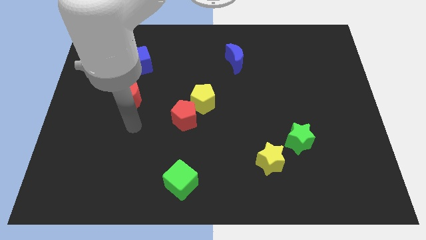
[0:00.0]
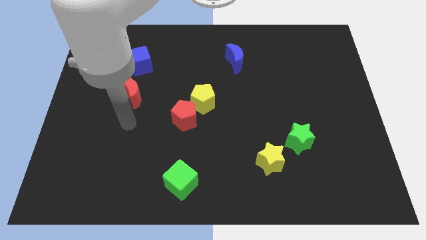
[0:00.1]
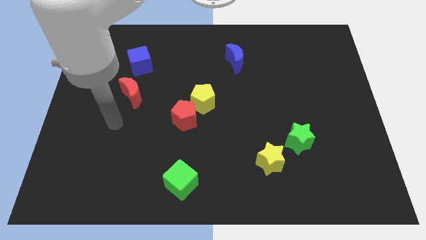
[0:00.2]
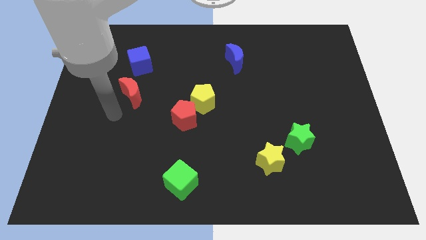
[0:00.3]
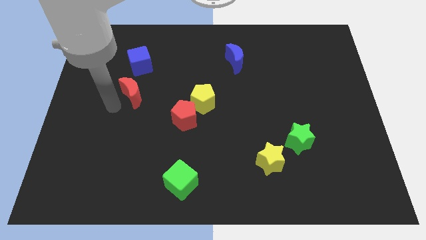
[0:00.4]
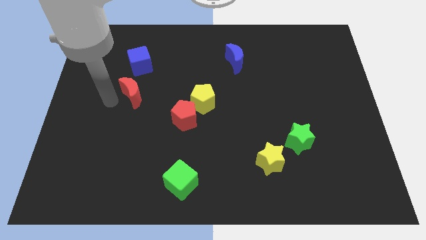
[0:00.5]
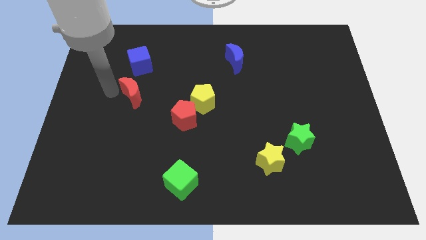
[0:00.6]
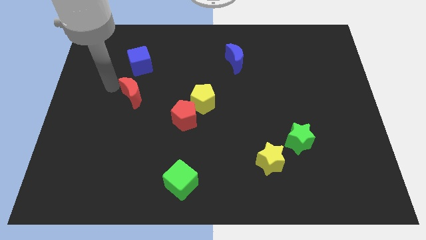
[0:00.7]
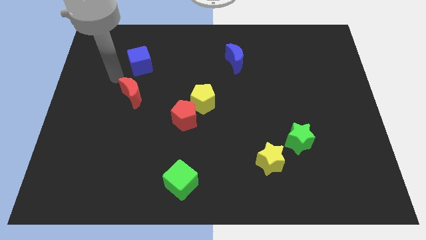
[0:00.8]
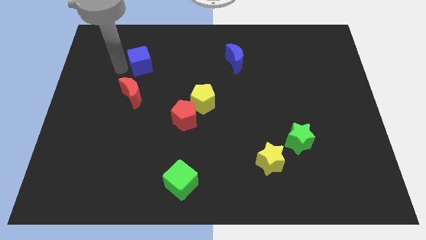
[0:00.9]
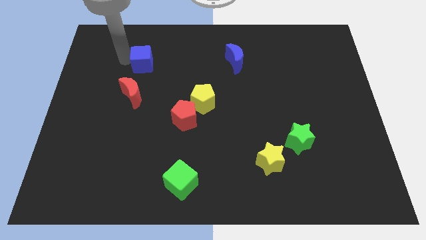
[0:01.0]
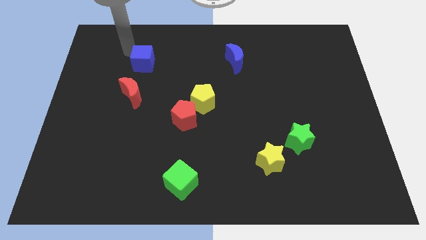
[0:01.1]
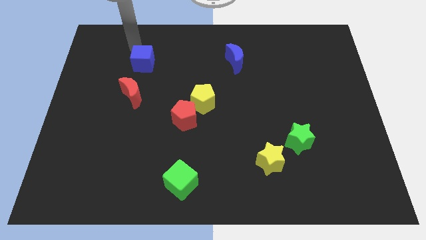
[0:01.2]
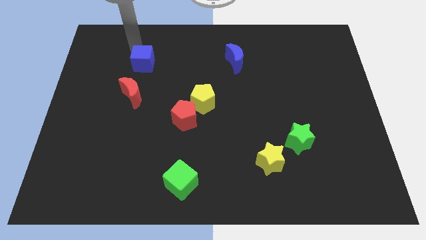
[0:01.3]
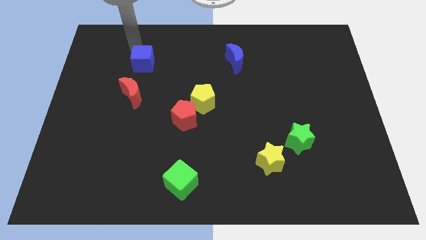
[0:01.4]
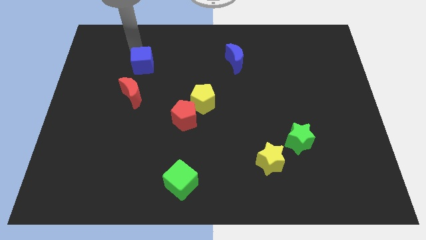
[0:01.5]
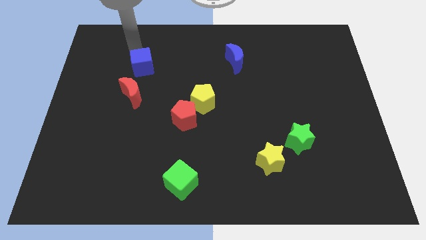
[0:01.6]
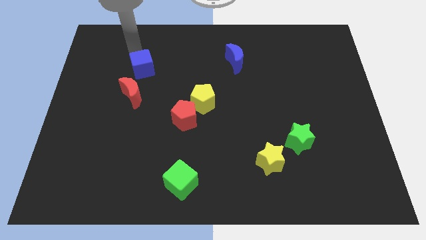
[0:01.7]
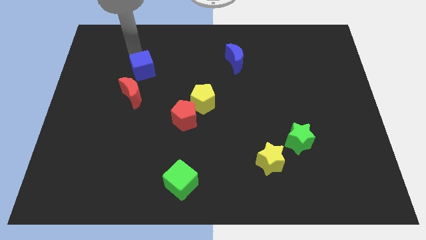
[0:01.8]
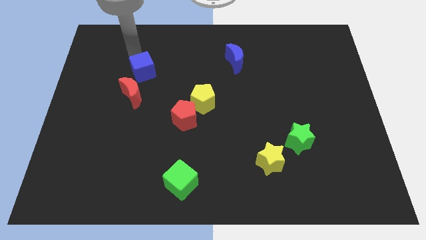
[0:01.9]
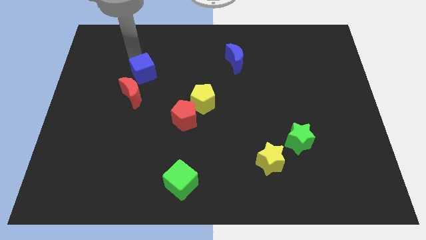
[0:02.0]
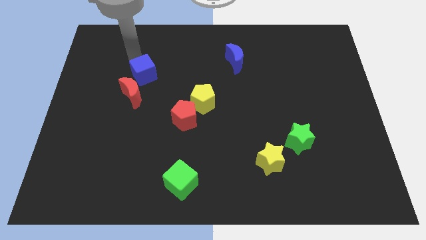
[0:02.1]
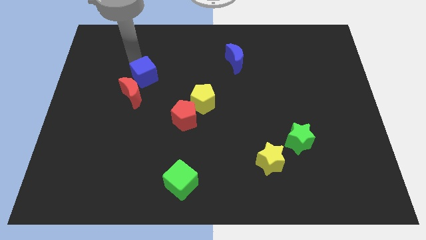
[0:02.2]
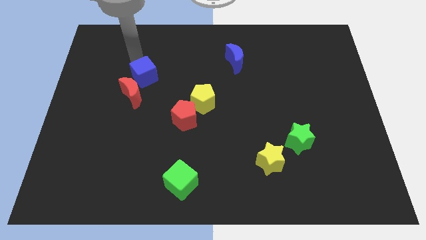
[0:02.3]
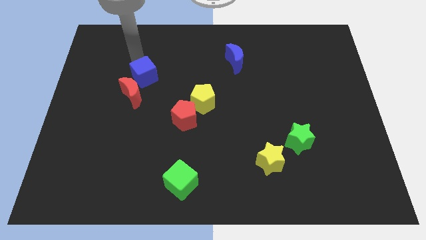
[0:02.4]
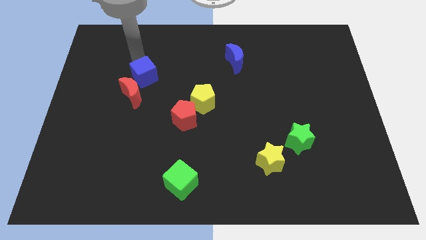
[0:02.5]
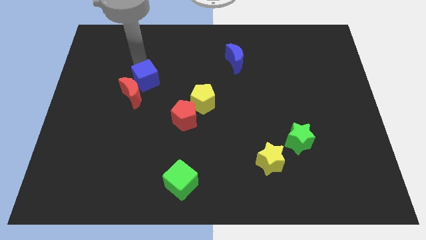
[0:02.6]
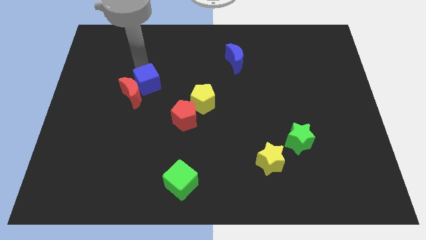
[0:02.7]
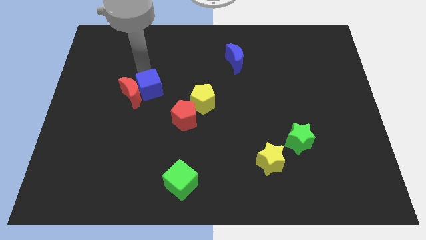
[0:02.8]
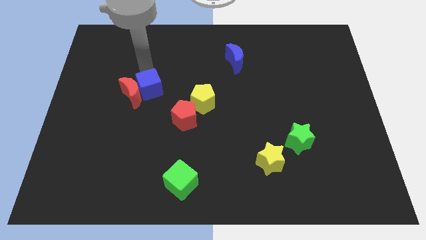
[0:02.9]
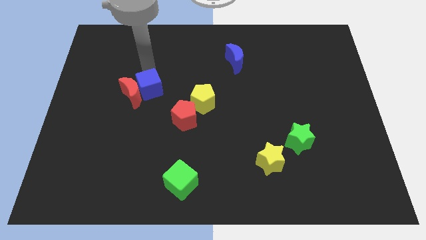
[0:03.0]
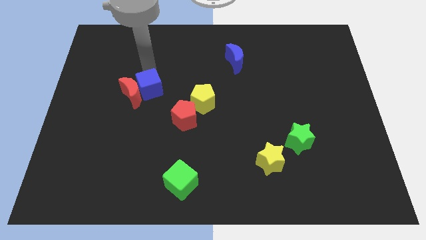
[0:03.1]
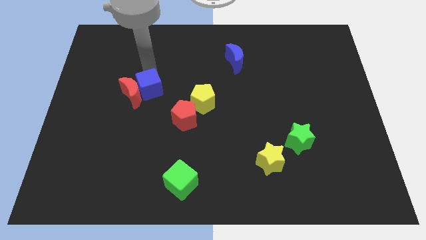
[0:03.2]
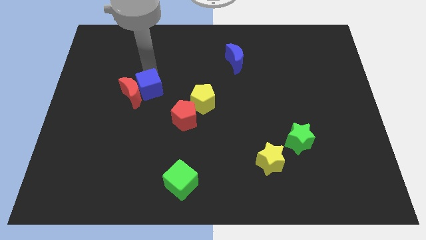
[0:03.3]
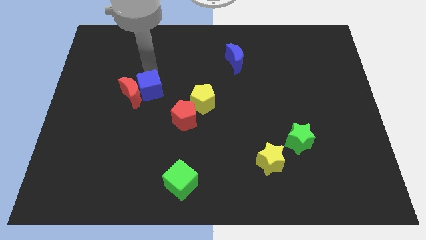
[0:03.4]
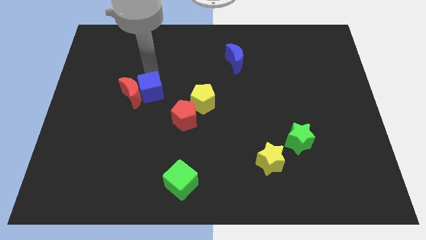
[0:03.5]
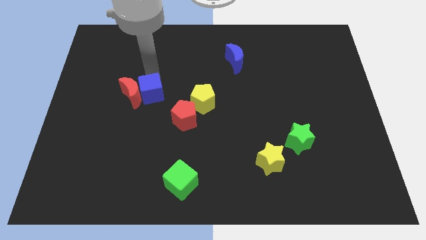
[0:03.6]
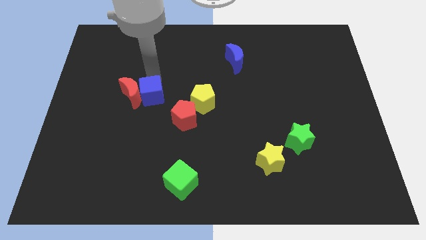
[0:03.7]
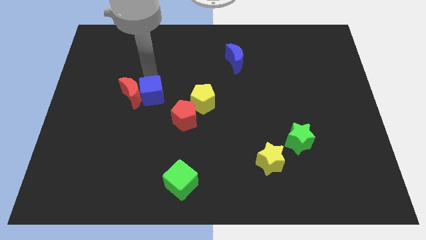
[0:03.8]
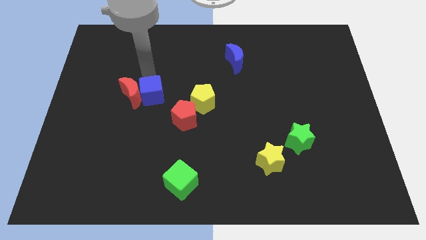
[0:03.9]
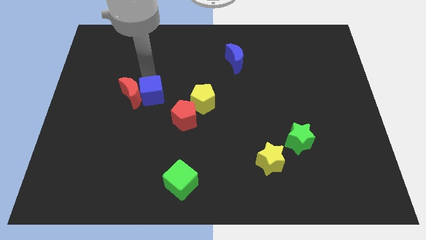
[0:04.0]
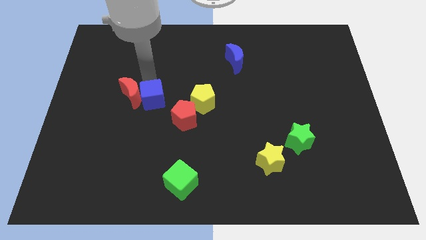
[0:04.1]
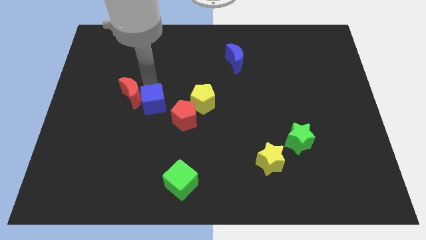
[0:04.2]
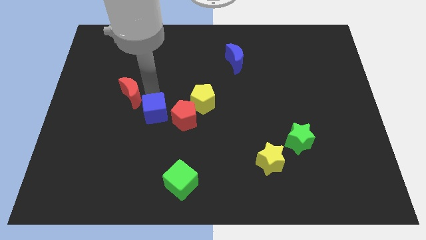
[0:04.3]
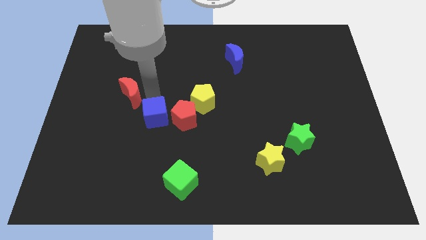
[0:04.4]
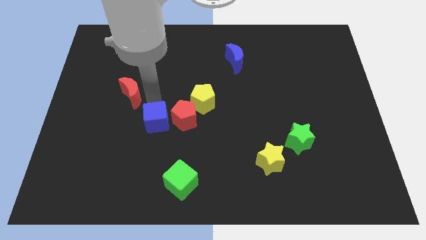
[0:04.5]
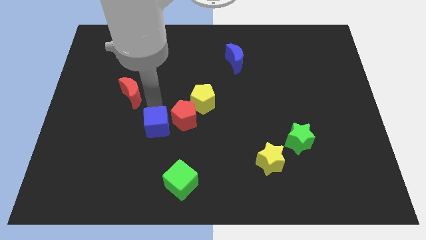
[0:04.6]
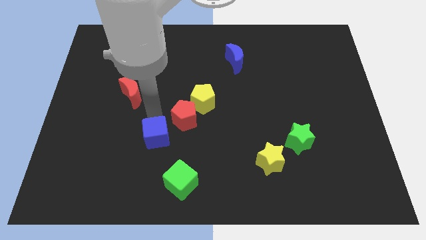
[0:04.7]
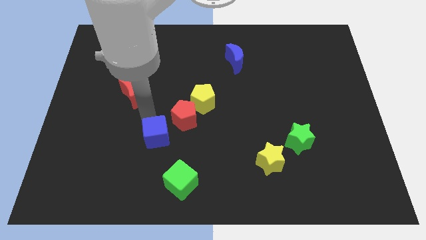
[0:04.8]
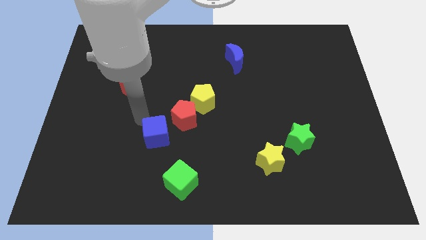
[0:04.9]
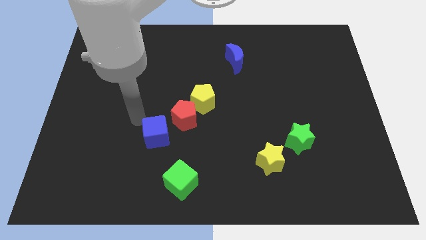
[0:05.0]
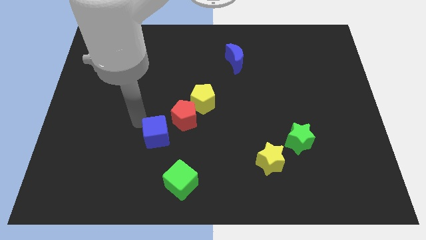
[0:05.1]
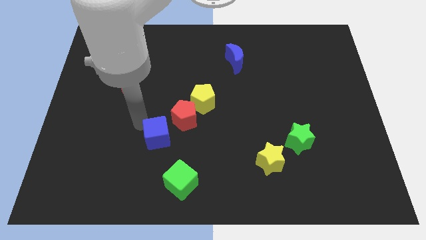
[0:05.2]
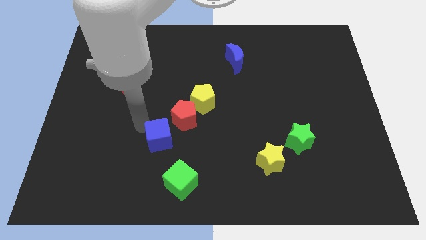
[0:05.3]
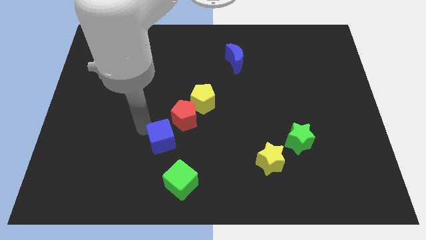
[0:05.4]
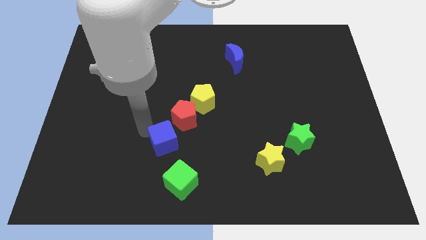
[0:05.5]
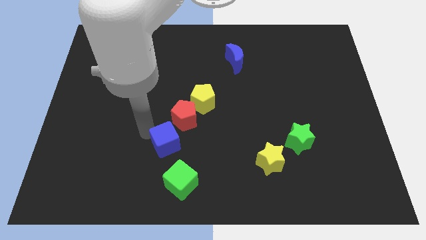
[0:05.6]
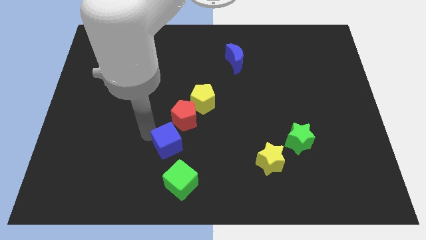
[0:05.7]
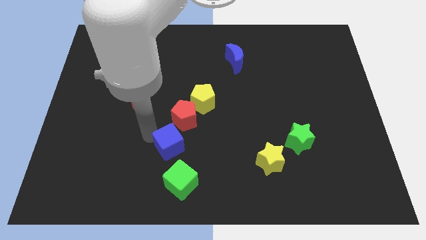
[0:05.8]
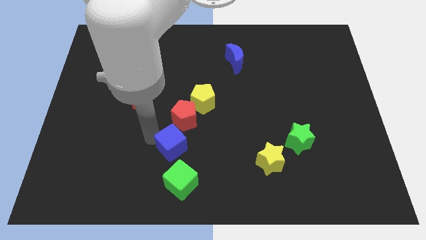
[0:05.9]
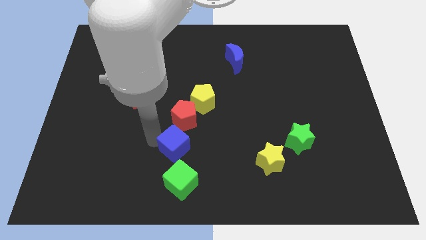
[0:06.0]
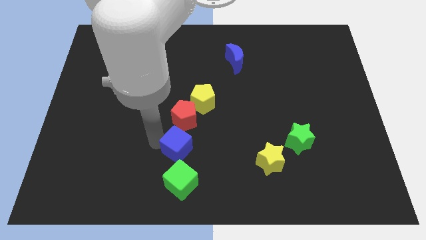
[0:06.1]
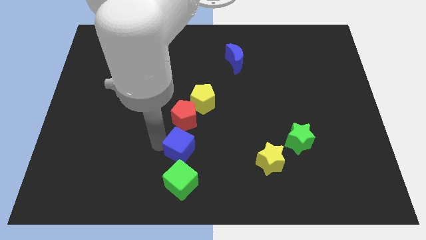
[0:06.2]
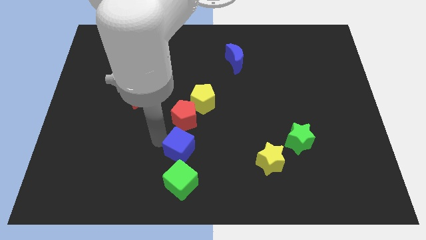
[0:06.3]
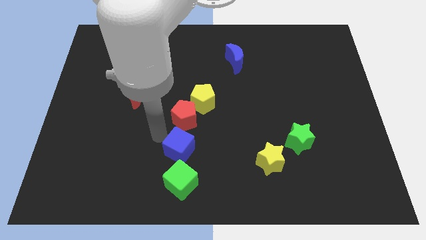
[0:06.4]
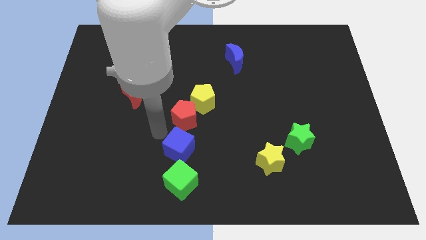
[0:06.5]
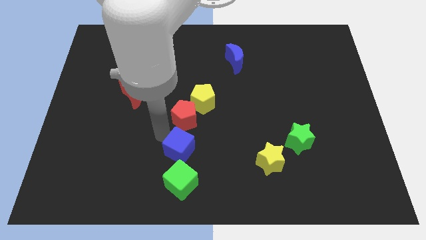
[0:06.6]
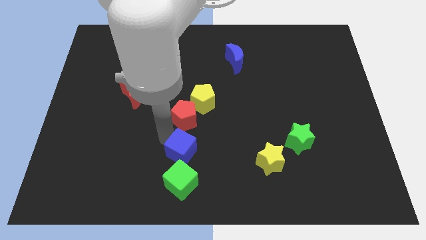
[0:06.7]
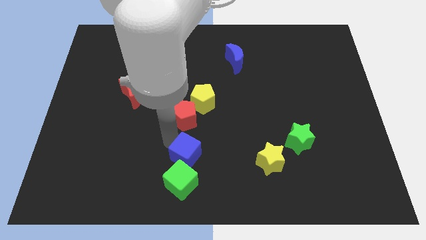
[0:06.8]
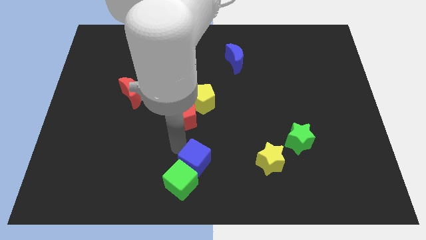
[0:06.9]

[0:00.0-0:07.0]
move the blue cube to the bottom
